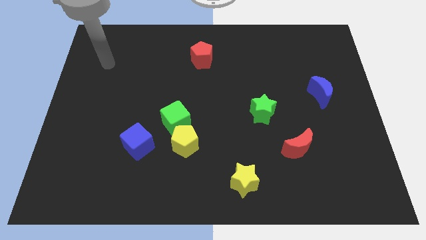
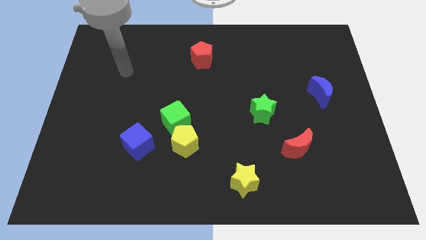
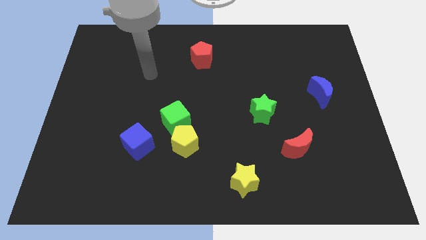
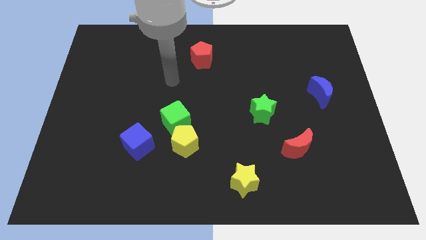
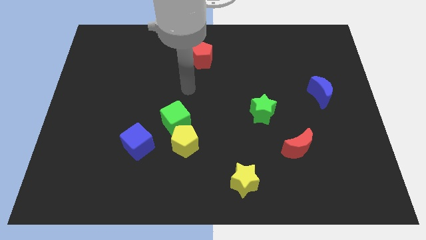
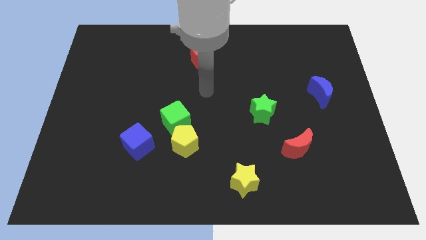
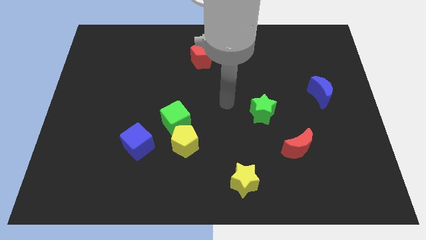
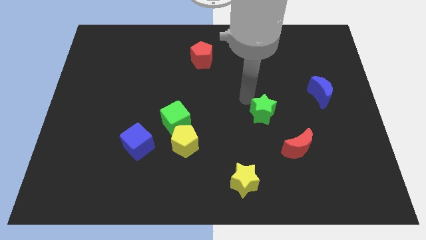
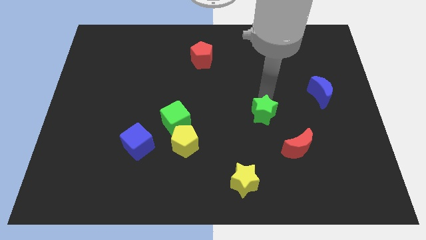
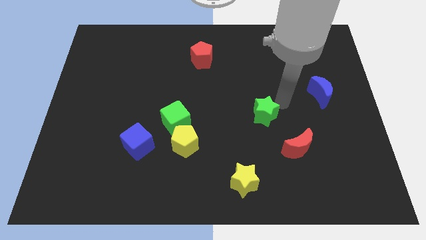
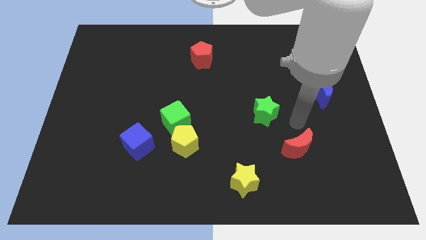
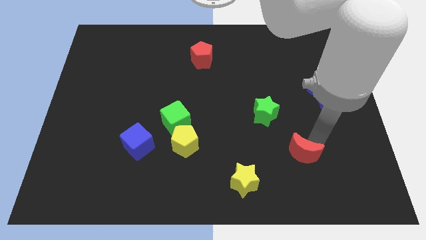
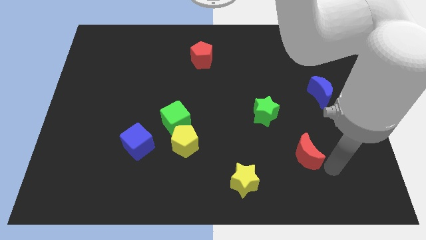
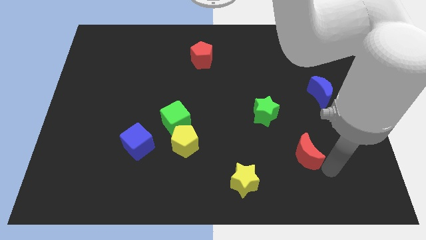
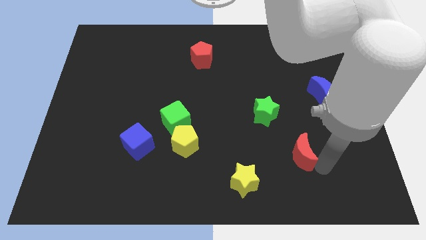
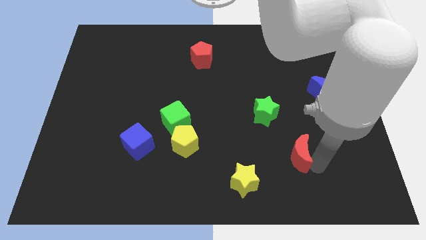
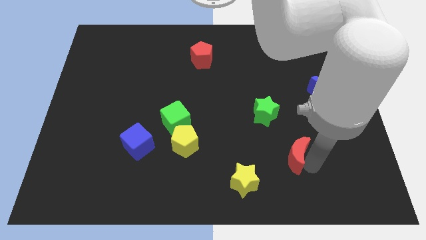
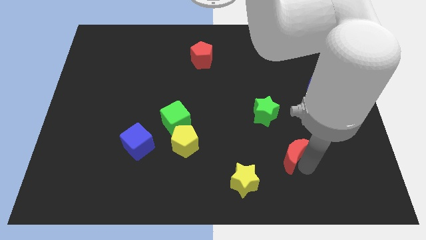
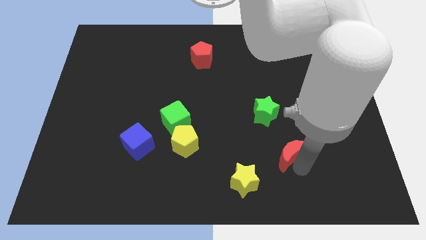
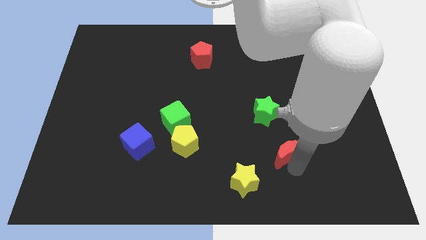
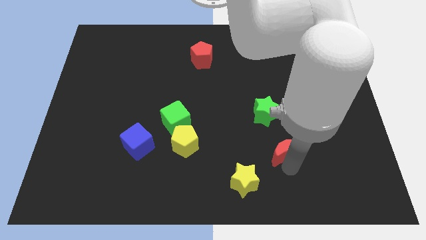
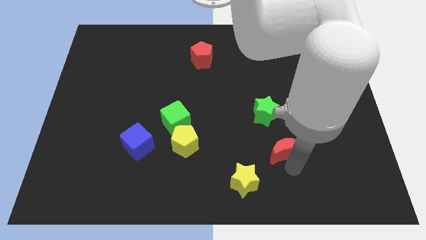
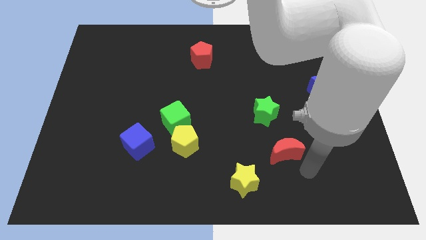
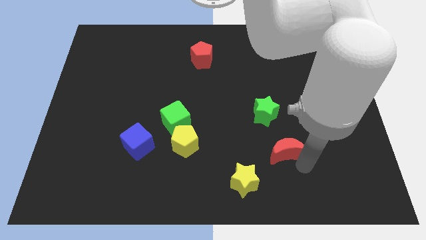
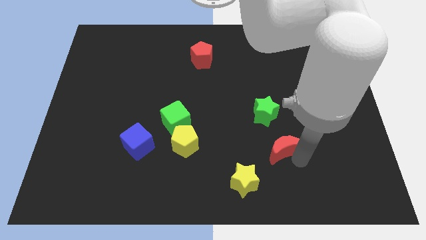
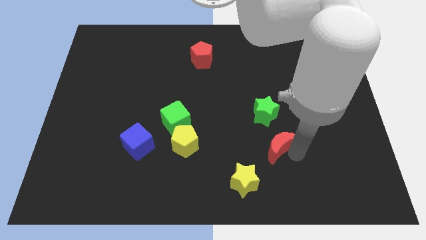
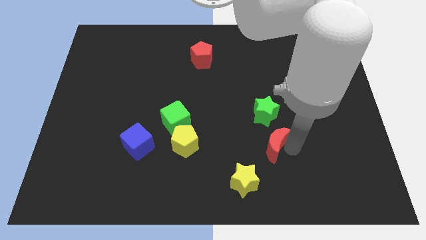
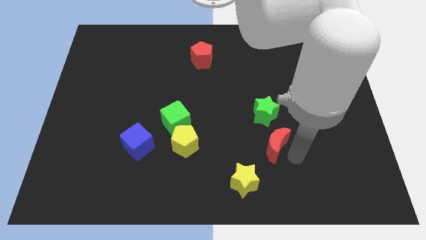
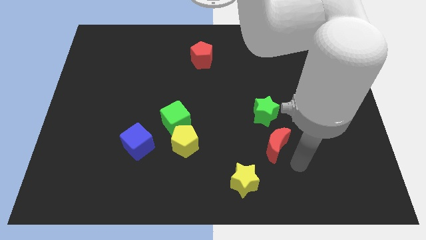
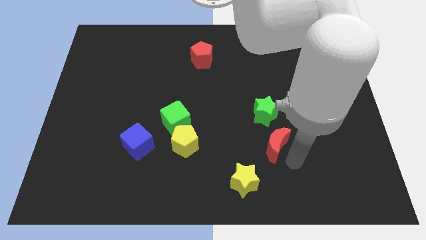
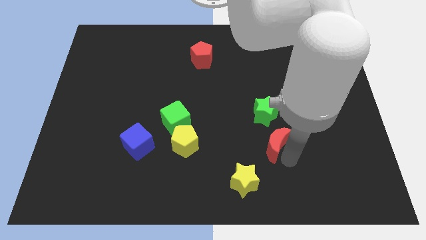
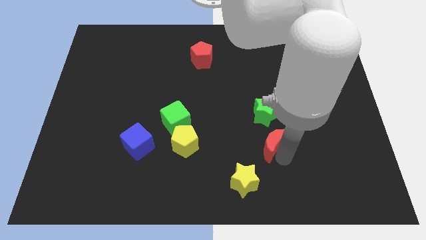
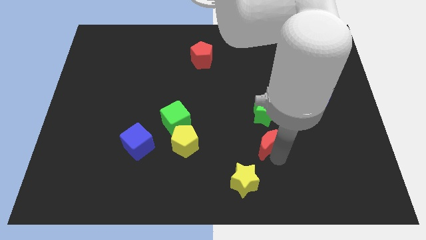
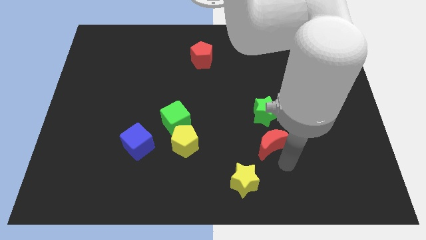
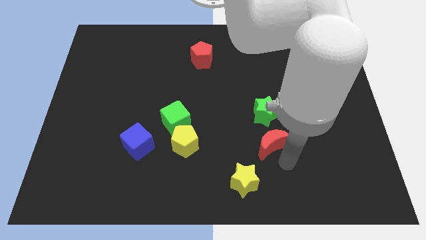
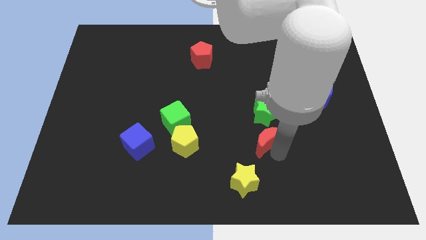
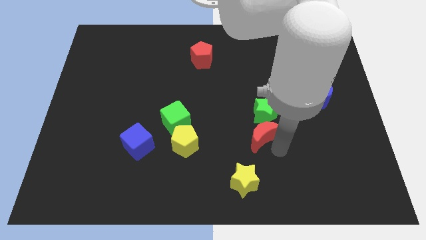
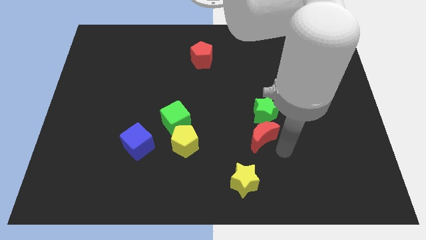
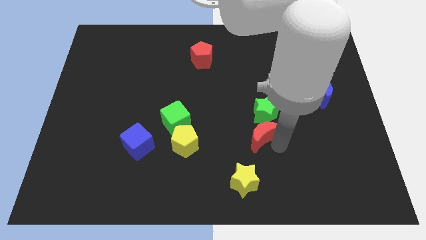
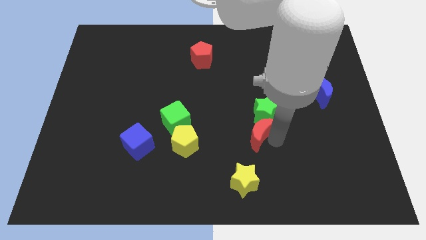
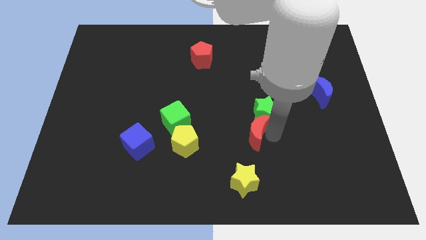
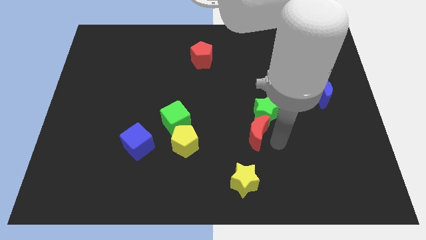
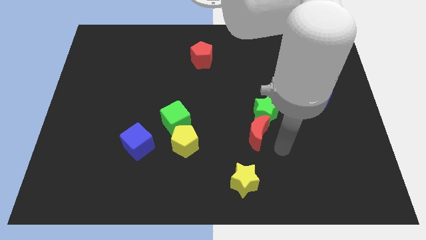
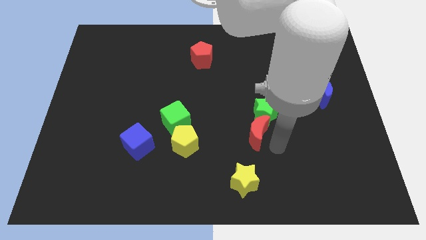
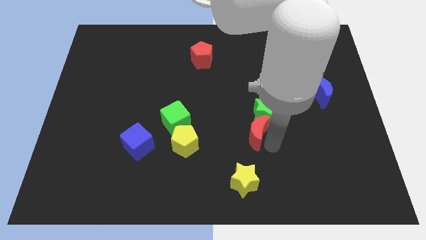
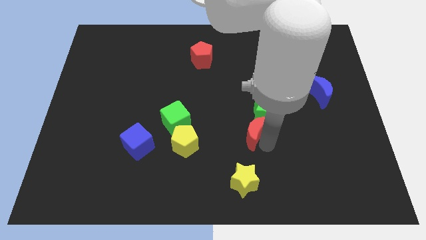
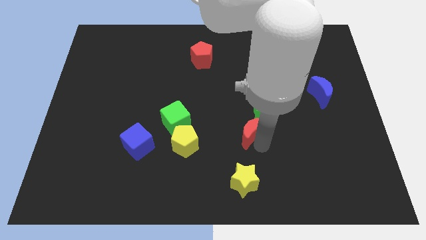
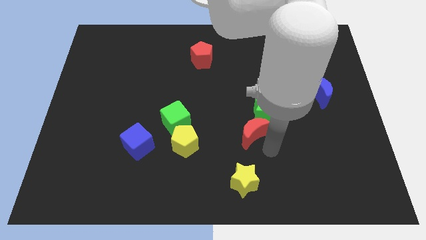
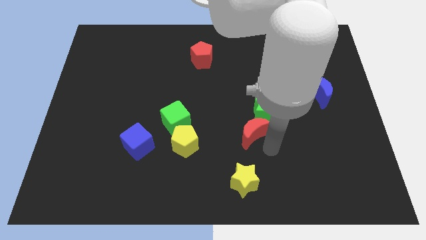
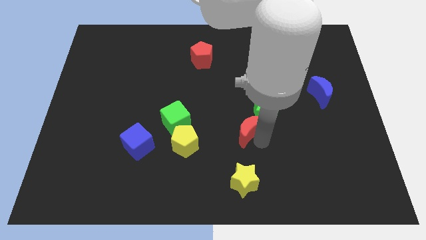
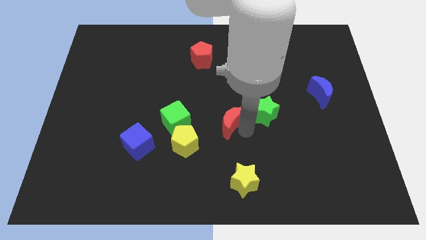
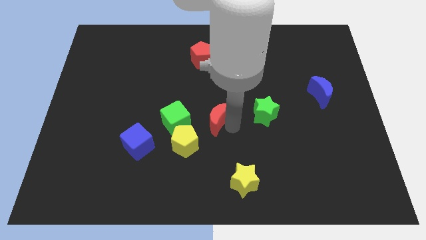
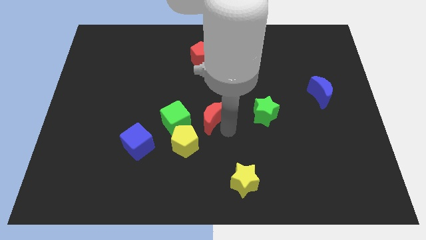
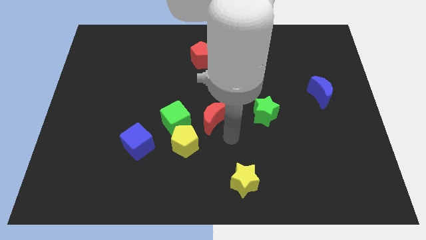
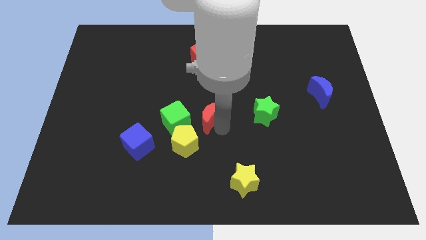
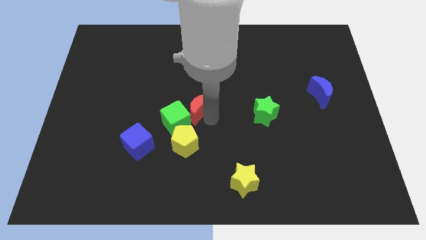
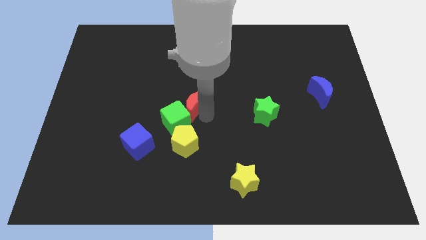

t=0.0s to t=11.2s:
push the red moon above the green cube
